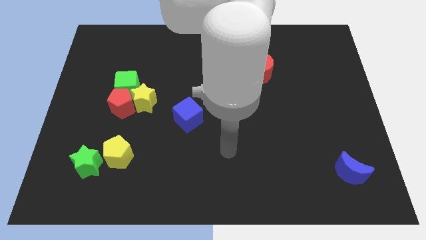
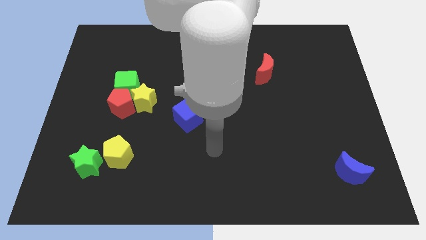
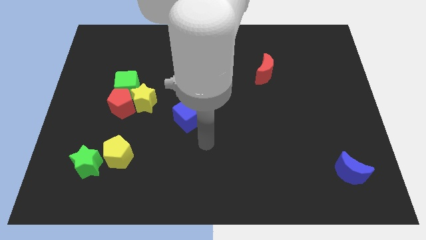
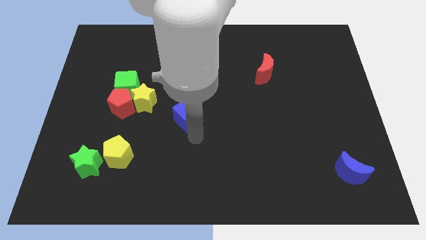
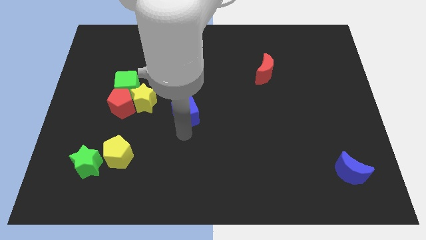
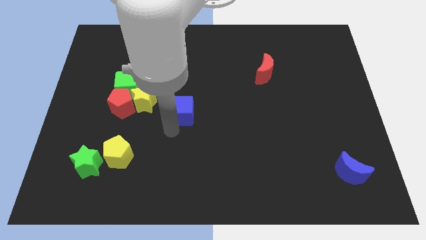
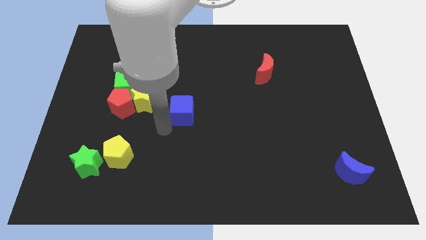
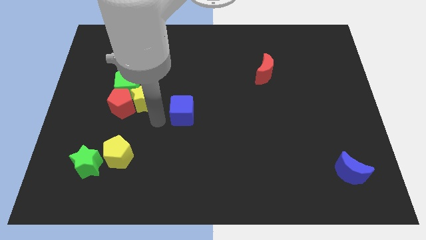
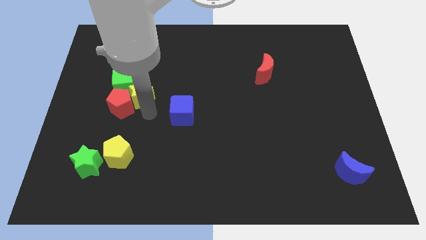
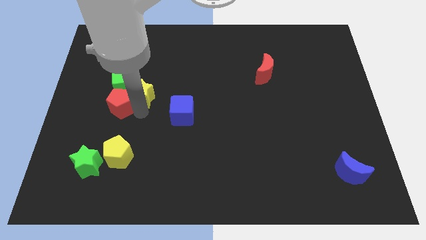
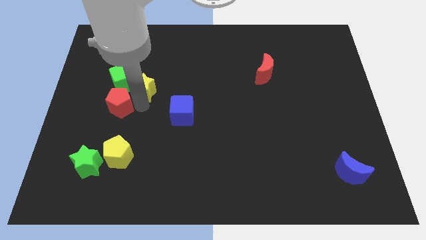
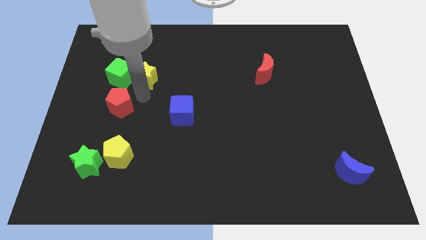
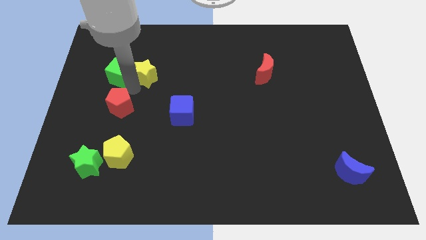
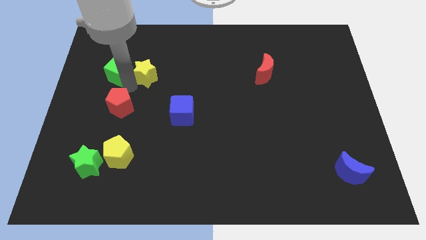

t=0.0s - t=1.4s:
separate the red pentagon from the yellow star and green cube

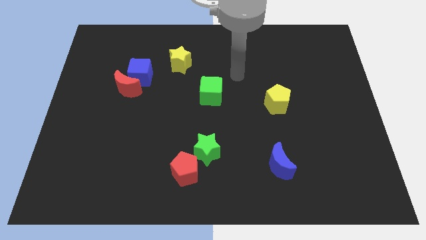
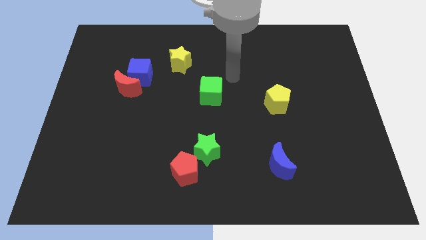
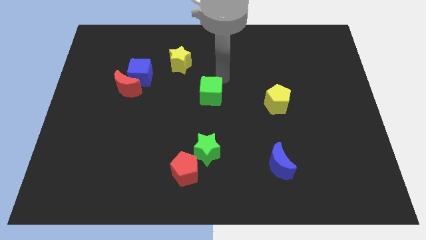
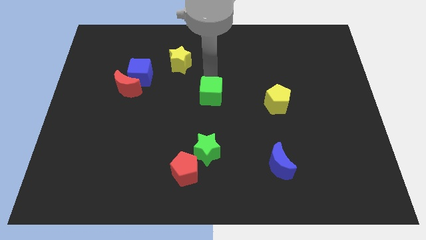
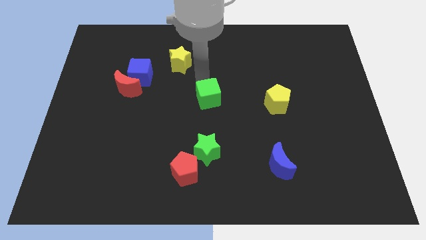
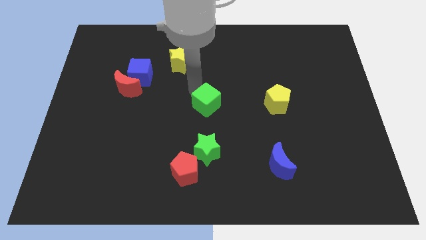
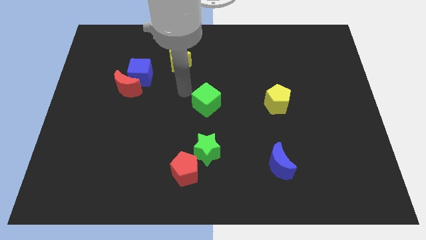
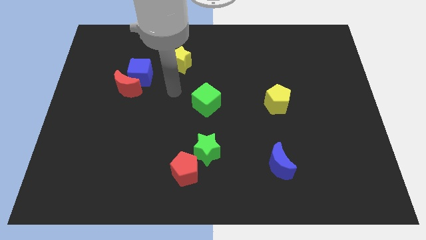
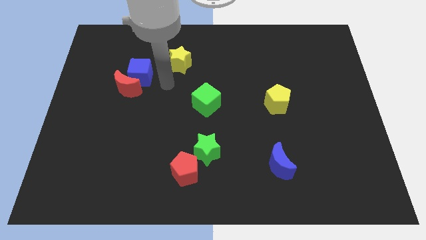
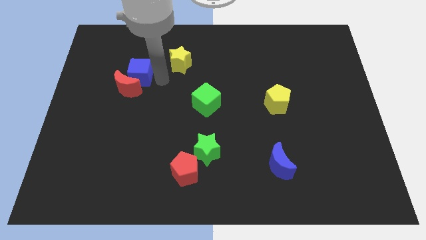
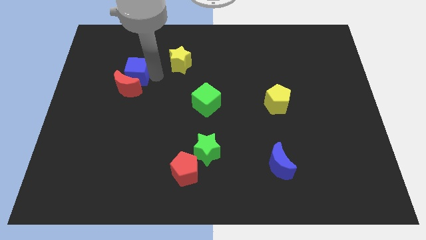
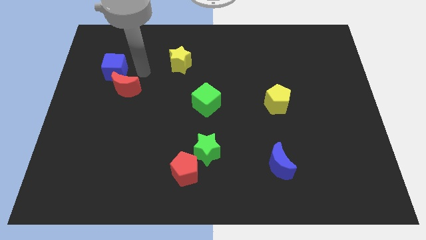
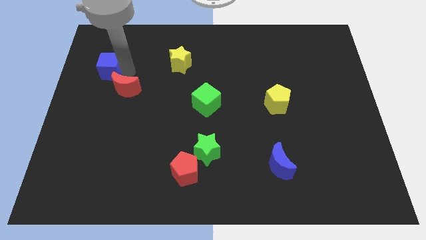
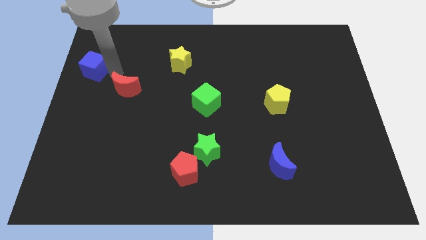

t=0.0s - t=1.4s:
pull the red moon apart from the blue cube

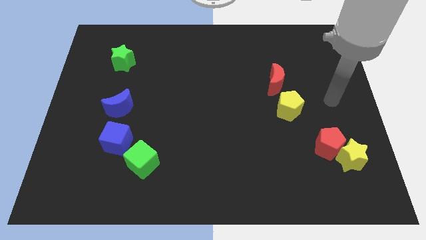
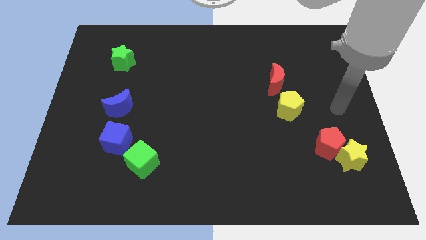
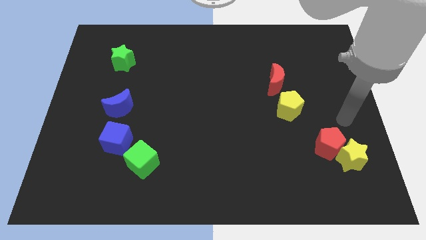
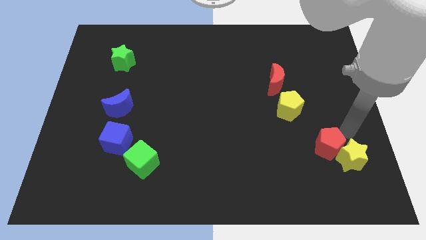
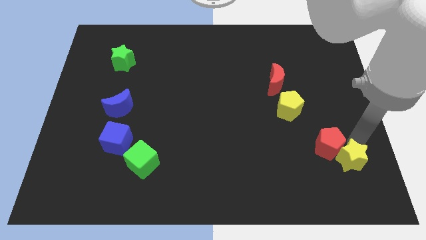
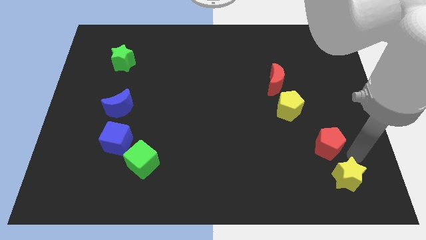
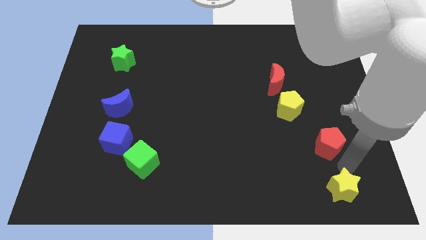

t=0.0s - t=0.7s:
move the red pentagon away from the yellow star

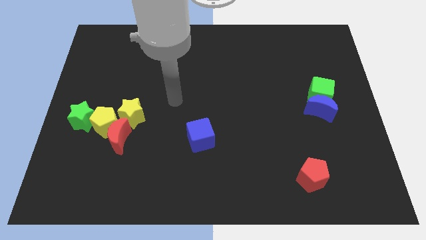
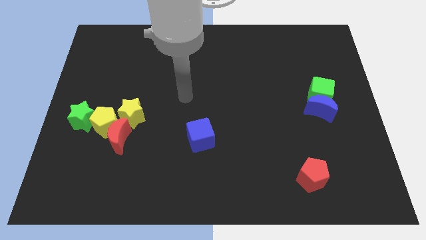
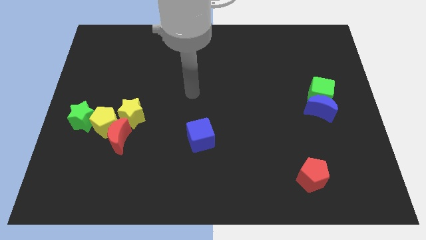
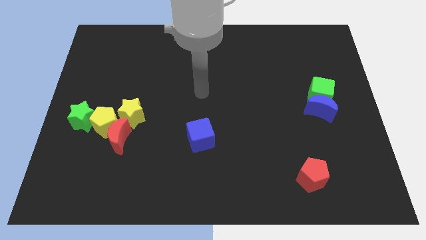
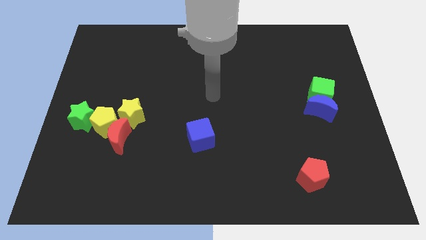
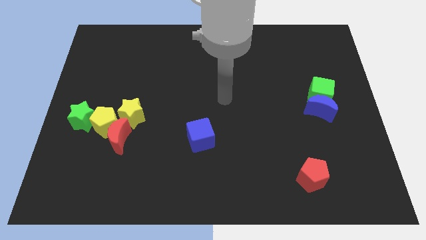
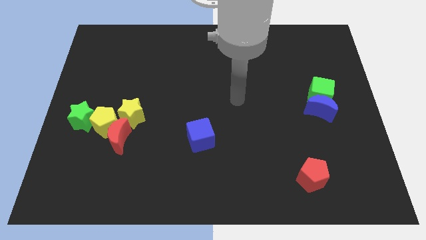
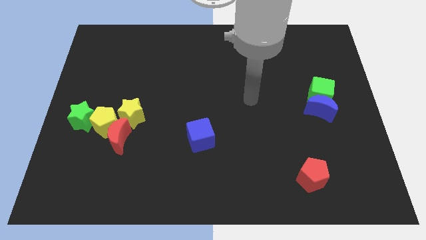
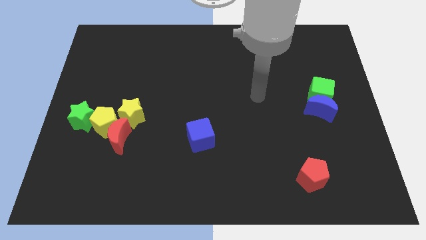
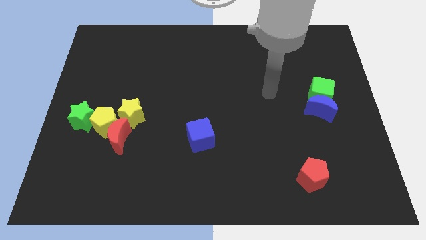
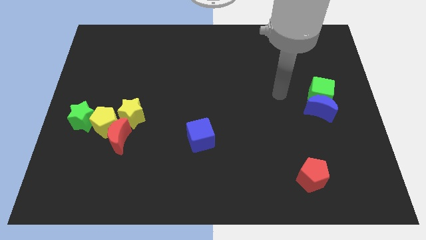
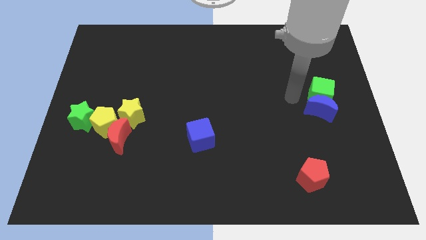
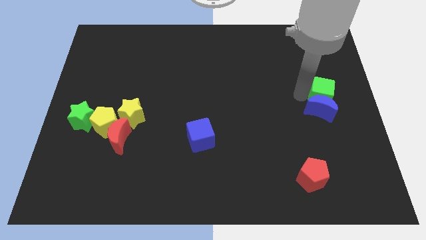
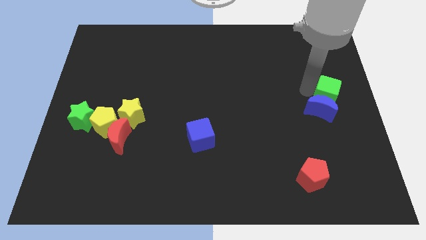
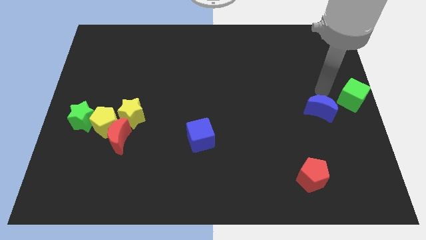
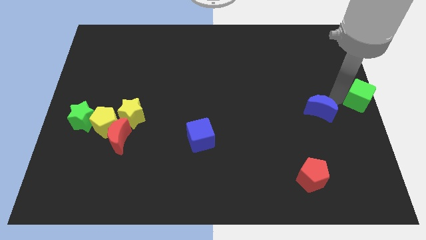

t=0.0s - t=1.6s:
move the blue moon away from the green cube

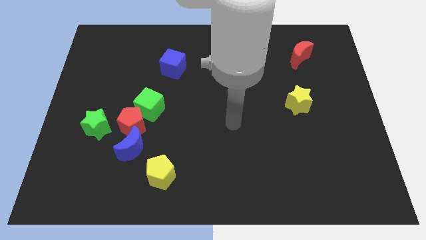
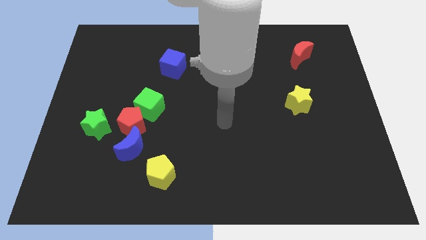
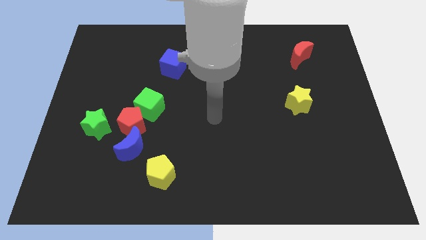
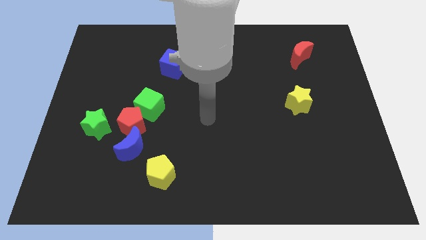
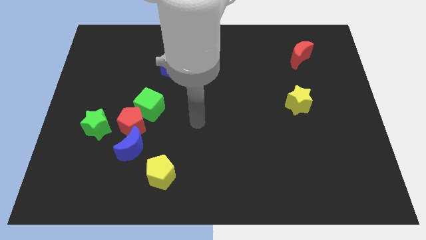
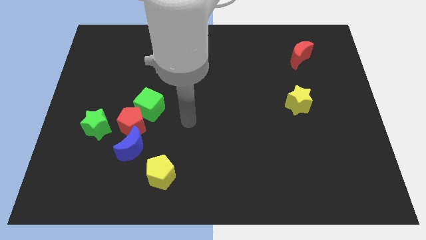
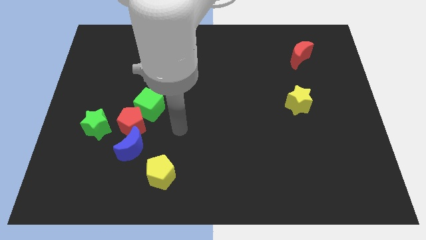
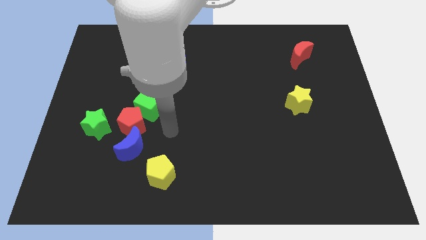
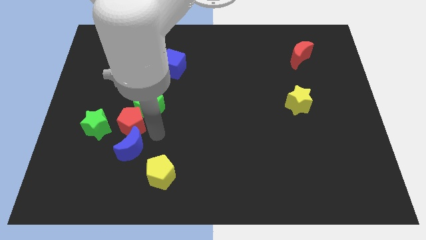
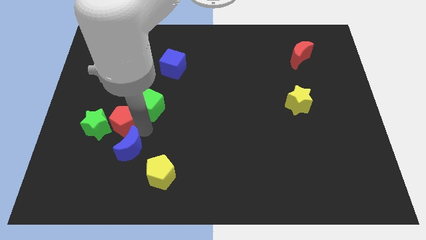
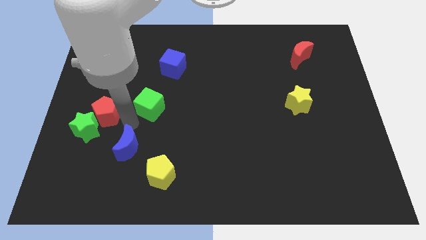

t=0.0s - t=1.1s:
move the green cube away from the red pentagon

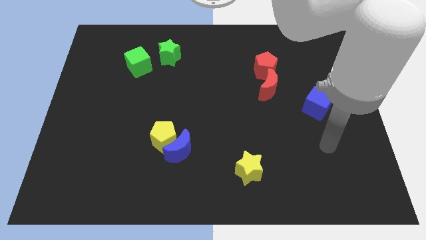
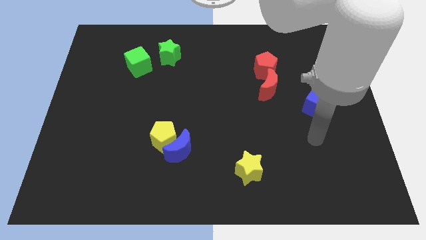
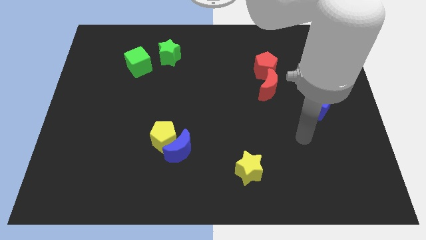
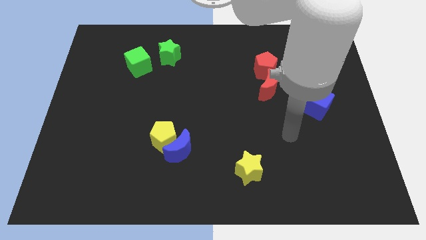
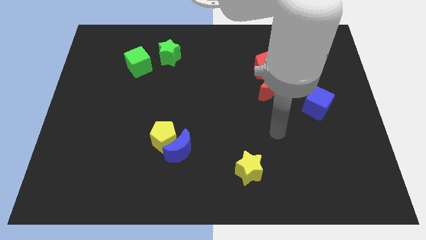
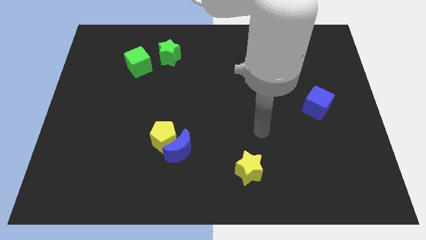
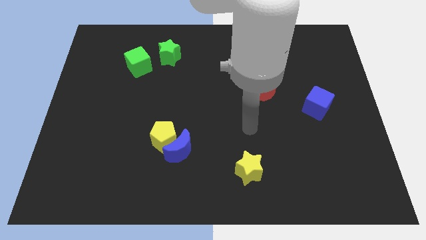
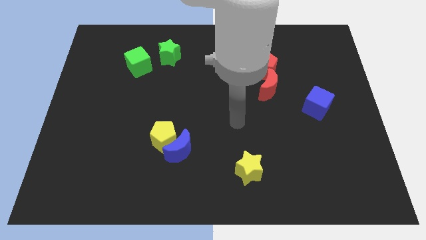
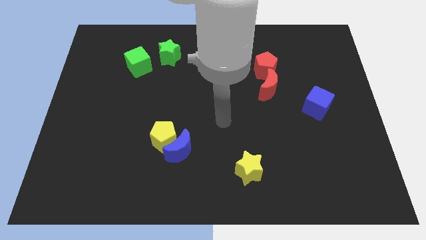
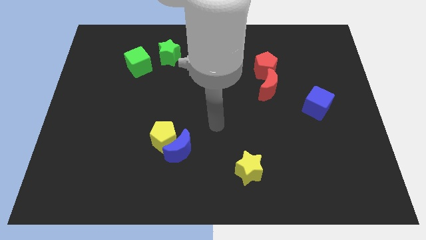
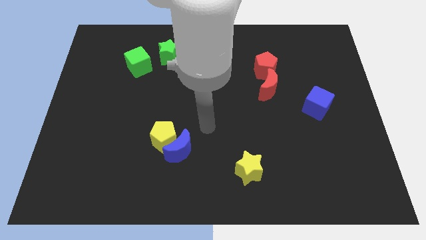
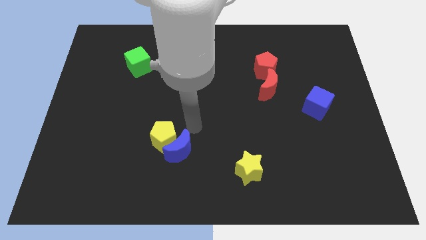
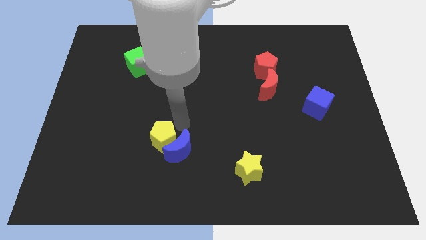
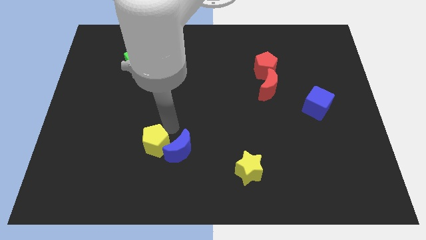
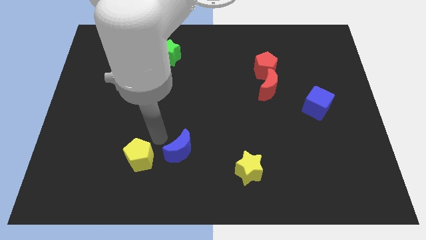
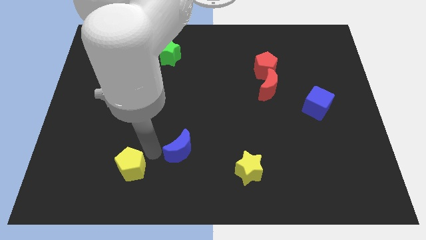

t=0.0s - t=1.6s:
pull the blue moon apart from the yellow pentagon

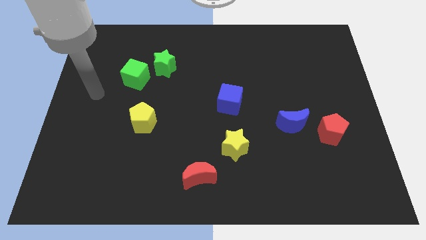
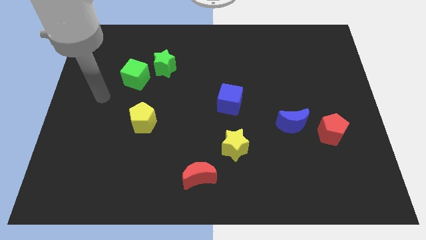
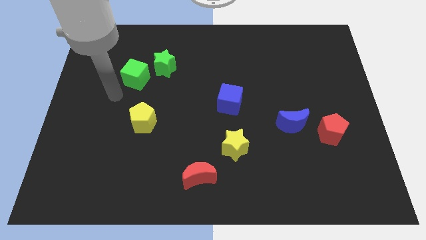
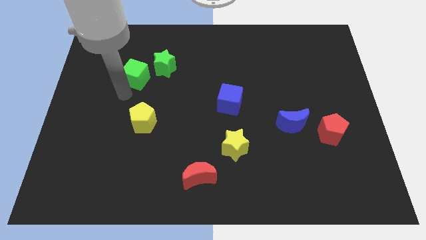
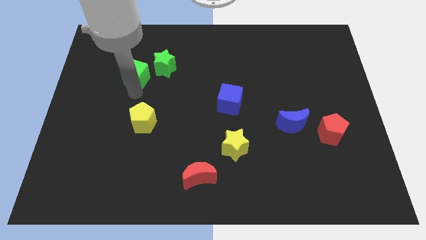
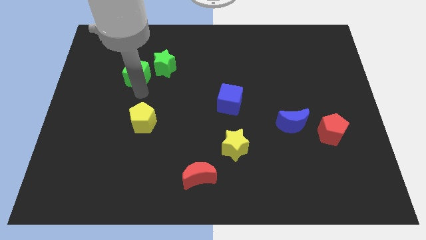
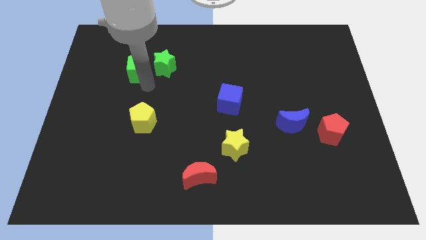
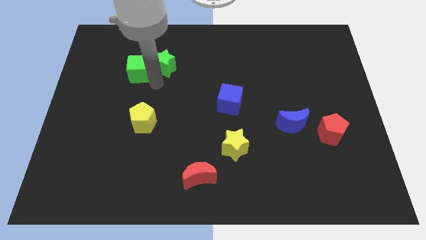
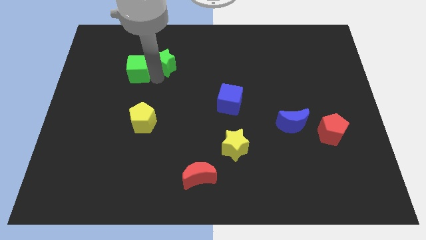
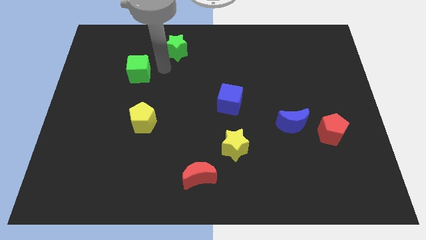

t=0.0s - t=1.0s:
move the green cube away from the green star
